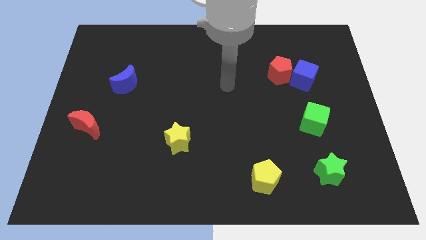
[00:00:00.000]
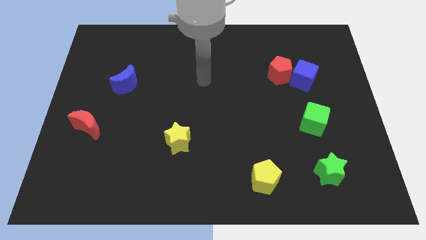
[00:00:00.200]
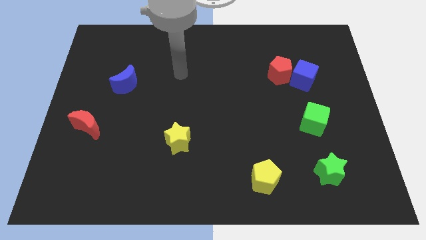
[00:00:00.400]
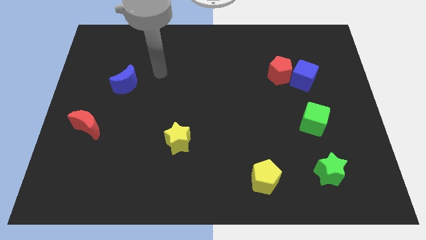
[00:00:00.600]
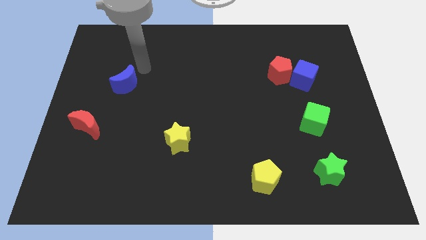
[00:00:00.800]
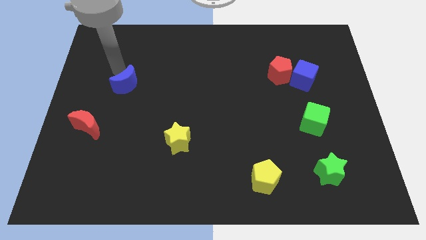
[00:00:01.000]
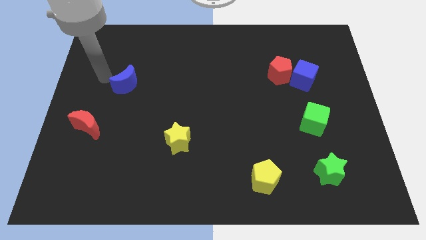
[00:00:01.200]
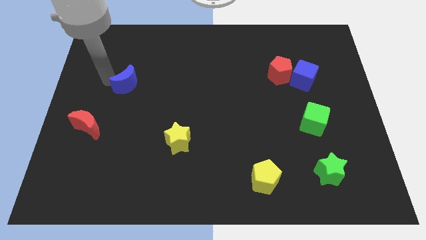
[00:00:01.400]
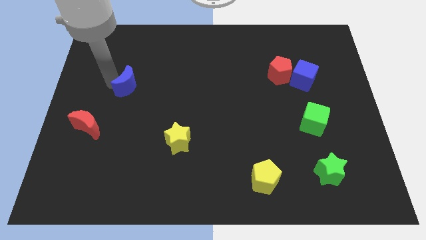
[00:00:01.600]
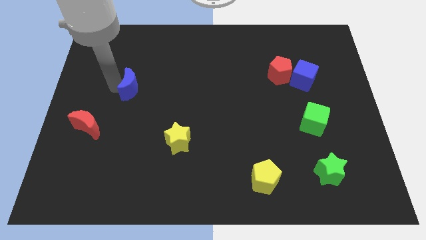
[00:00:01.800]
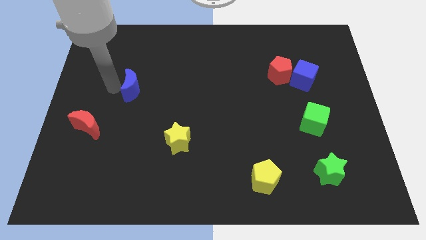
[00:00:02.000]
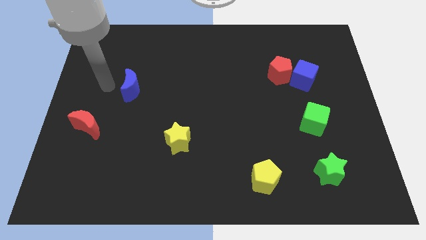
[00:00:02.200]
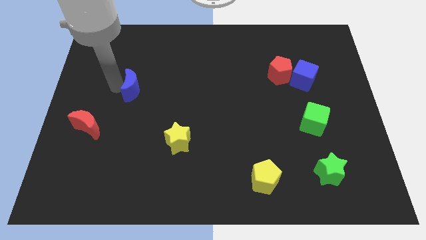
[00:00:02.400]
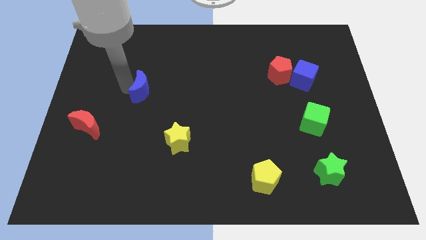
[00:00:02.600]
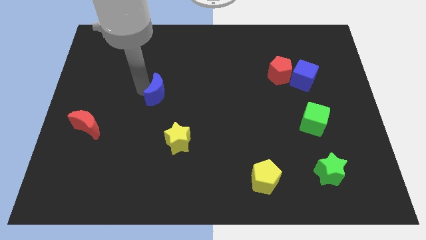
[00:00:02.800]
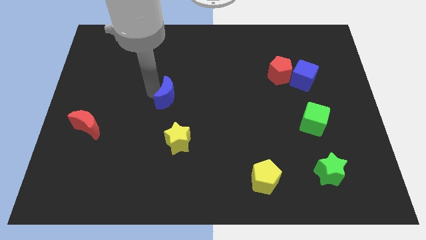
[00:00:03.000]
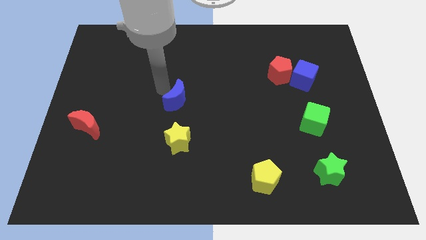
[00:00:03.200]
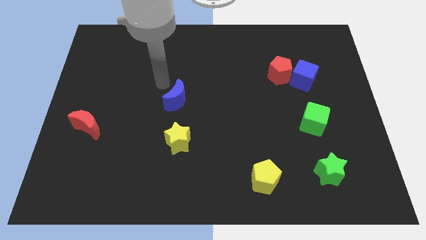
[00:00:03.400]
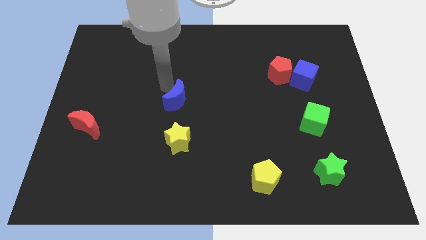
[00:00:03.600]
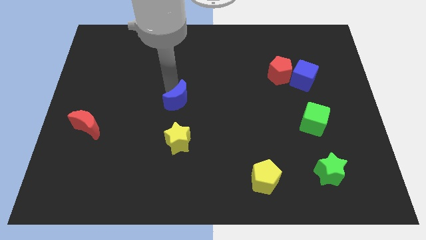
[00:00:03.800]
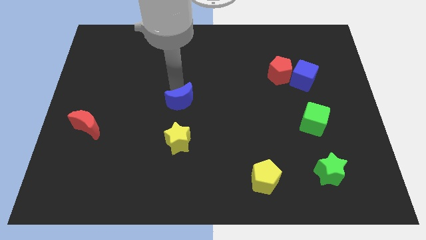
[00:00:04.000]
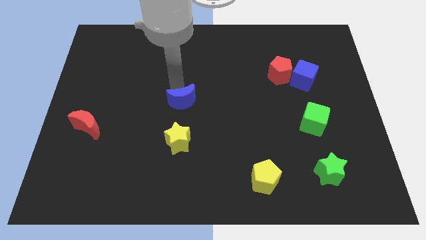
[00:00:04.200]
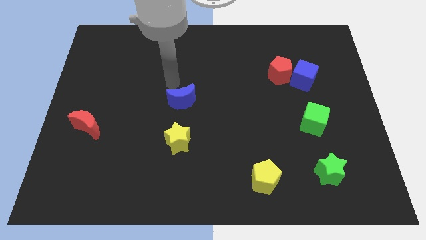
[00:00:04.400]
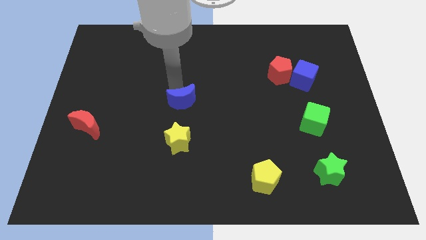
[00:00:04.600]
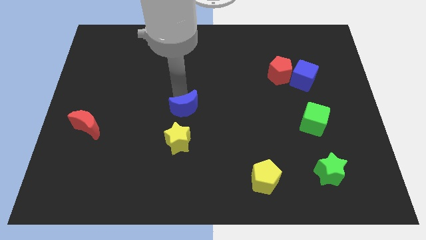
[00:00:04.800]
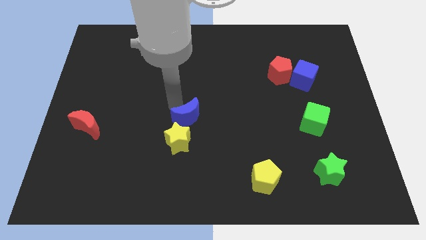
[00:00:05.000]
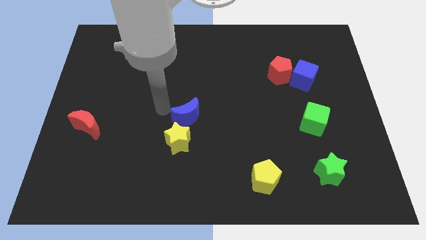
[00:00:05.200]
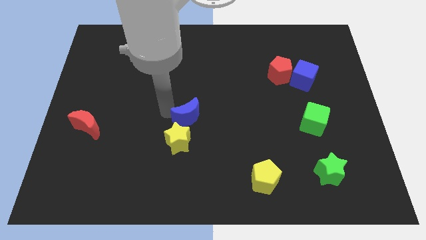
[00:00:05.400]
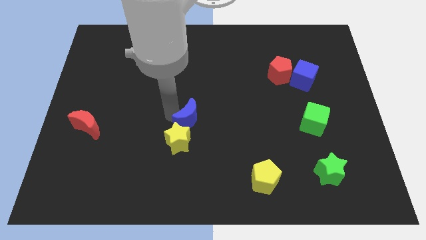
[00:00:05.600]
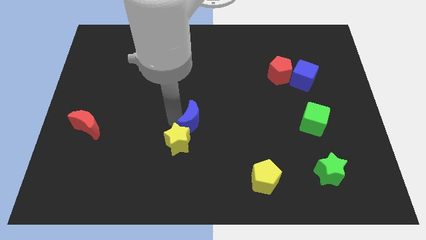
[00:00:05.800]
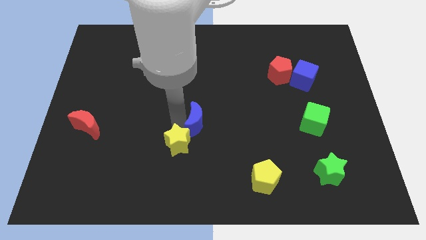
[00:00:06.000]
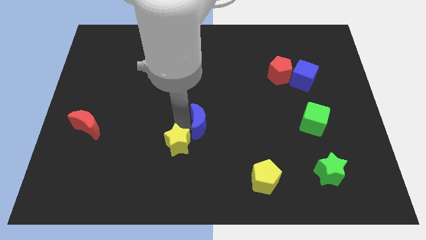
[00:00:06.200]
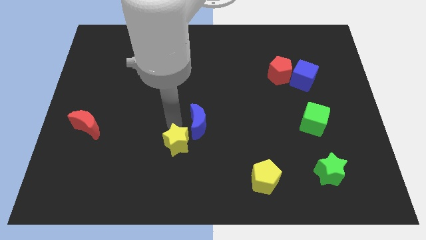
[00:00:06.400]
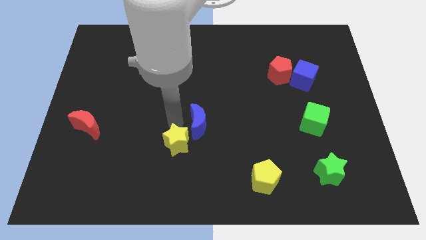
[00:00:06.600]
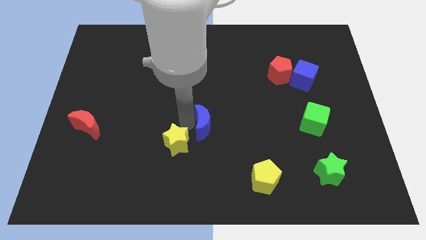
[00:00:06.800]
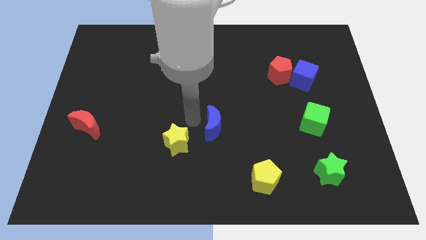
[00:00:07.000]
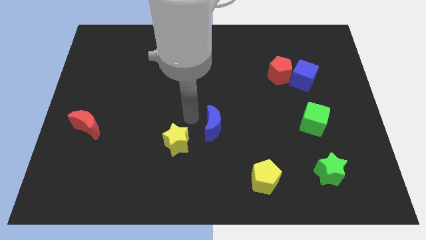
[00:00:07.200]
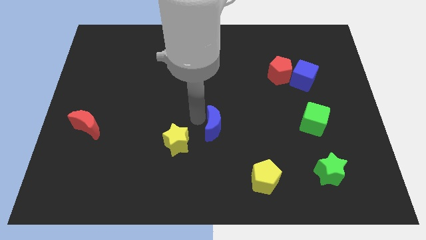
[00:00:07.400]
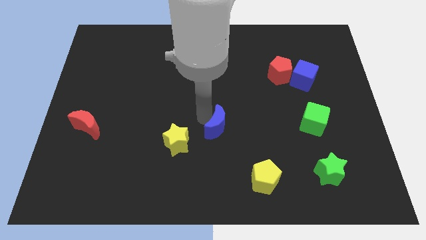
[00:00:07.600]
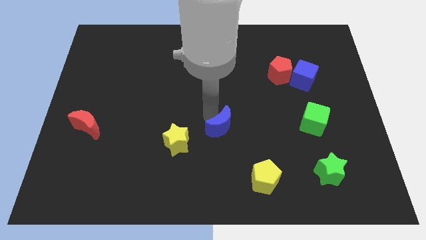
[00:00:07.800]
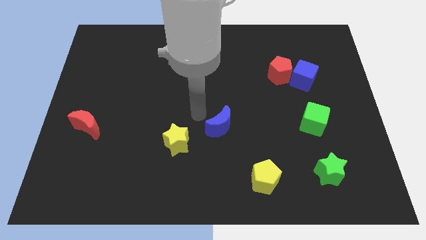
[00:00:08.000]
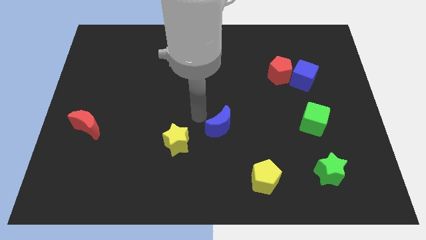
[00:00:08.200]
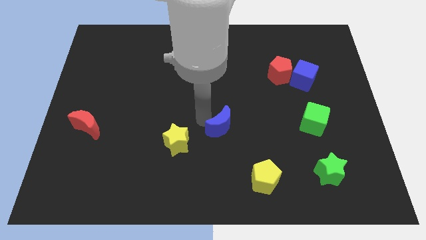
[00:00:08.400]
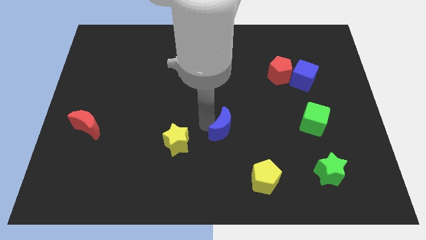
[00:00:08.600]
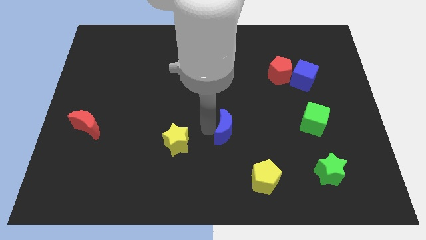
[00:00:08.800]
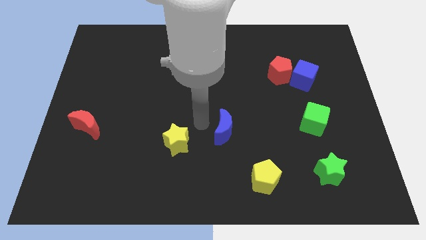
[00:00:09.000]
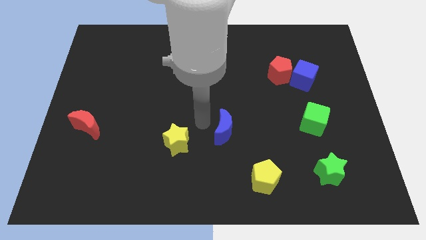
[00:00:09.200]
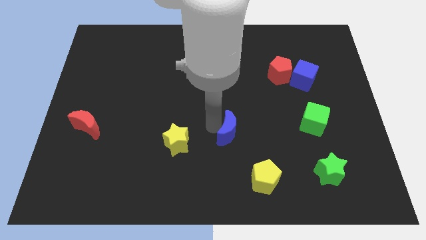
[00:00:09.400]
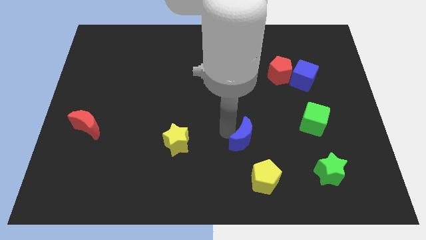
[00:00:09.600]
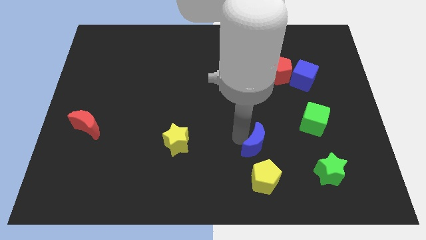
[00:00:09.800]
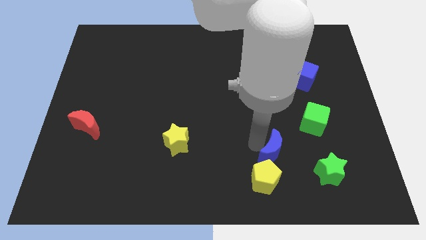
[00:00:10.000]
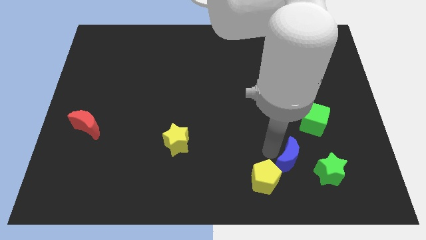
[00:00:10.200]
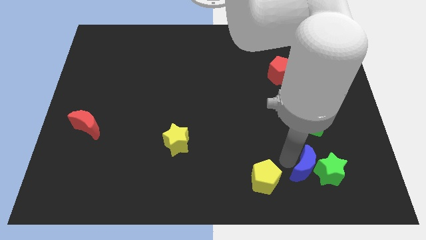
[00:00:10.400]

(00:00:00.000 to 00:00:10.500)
move the blue moon close to the green star
